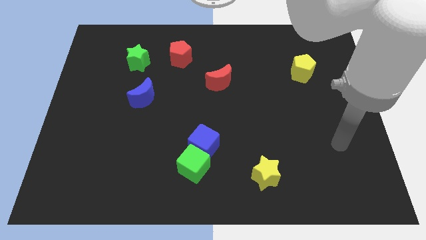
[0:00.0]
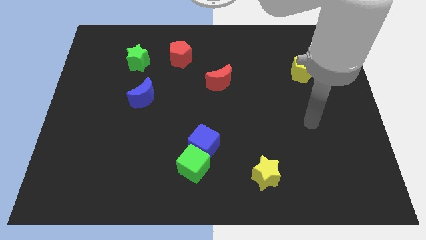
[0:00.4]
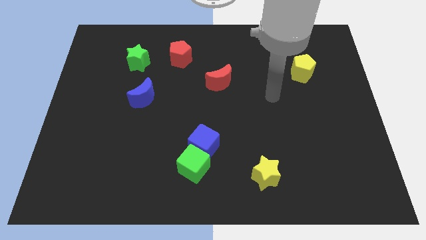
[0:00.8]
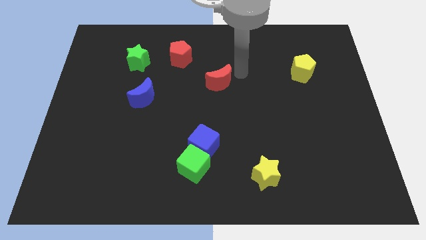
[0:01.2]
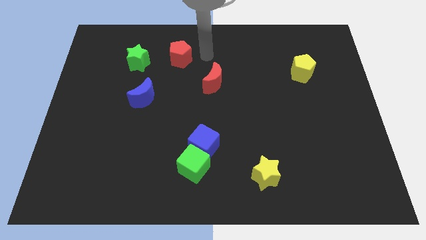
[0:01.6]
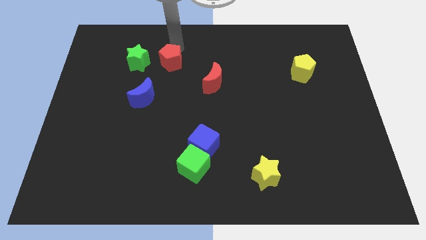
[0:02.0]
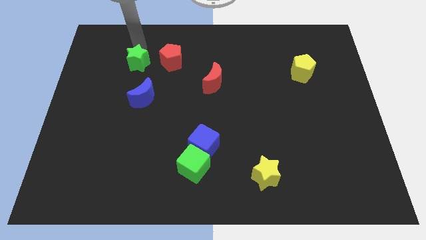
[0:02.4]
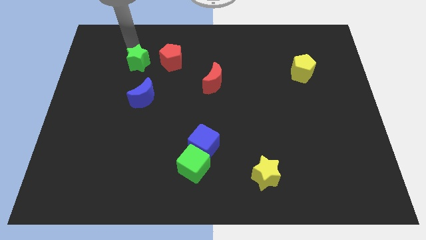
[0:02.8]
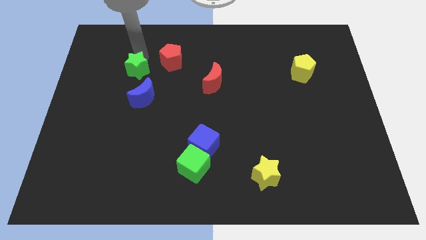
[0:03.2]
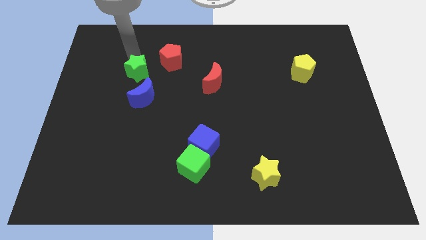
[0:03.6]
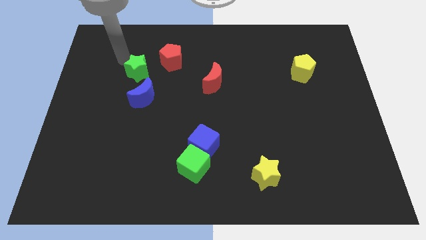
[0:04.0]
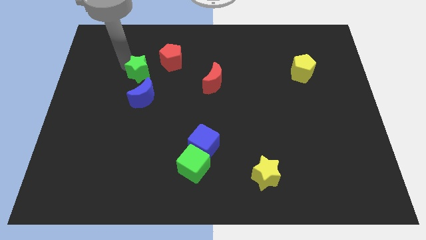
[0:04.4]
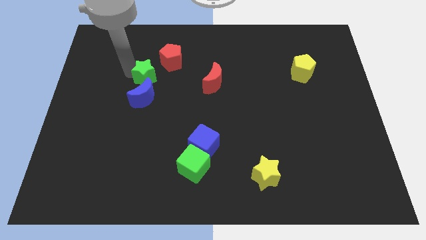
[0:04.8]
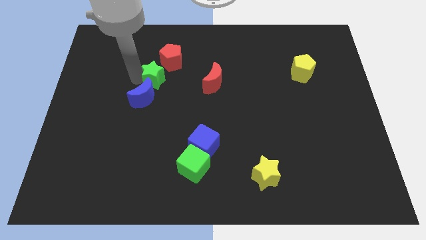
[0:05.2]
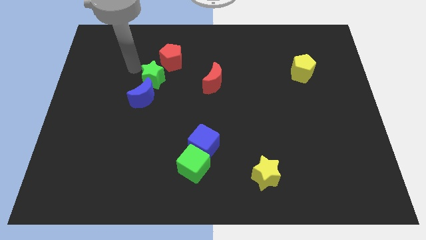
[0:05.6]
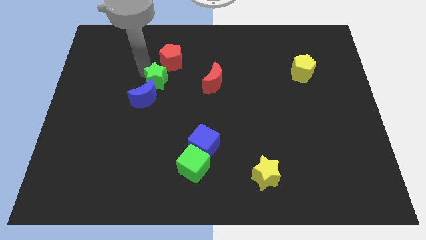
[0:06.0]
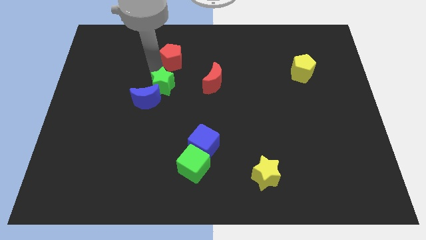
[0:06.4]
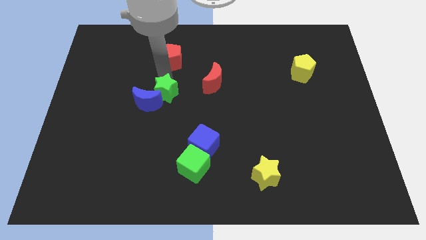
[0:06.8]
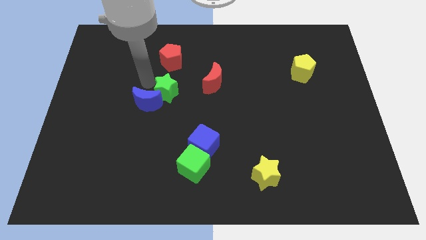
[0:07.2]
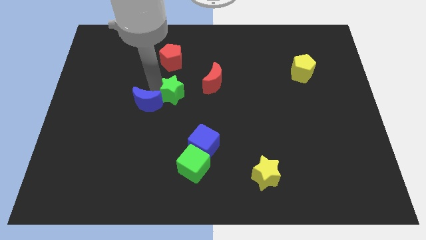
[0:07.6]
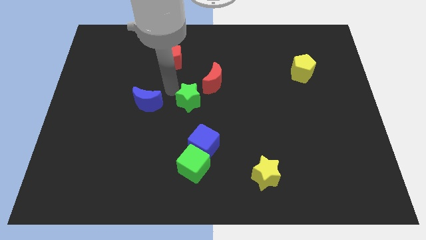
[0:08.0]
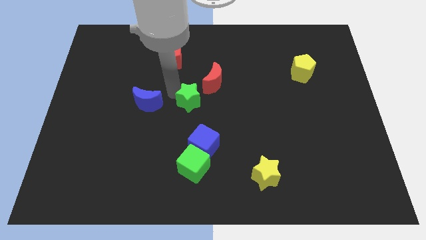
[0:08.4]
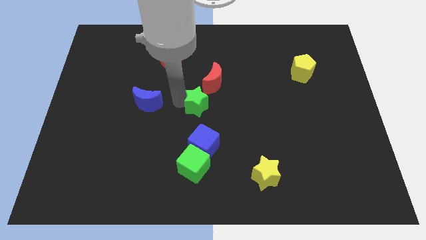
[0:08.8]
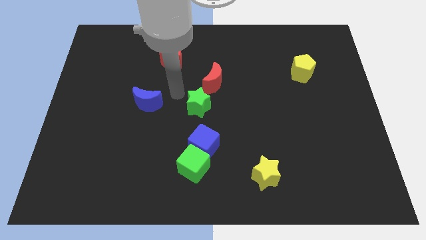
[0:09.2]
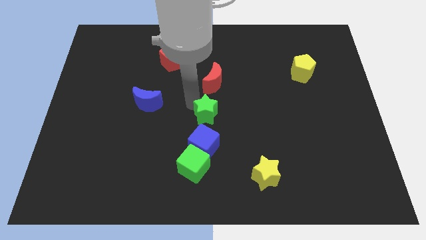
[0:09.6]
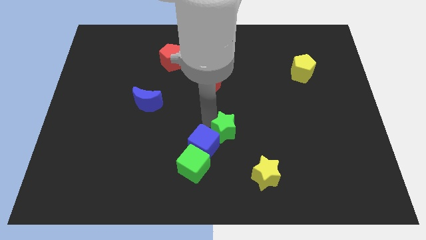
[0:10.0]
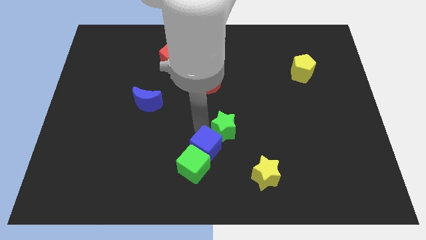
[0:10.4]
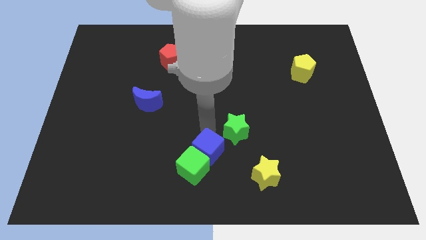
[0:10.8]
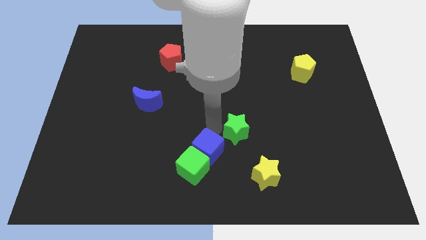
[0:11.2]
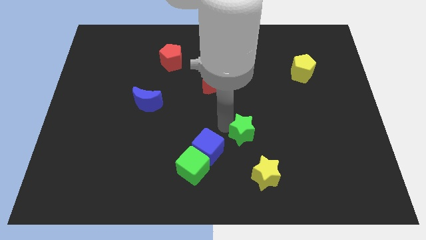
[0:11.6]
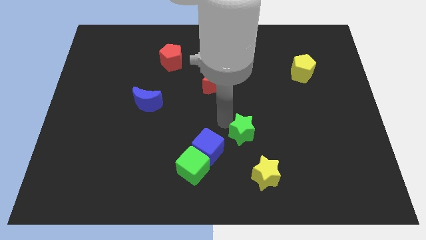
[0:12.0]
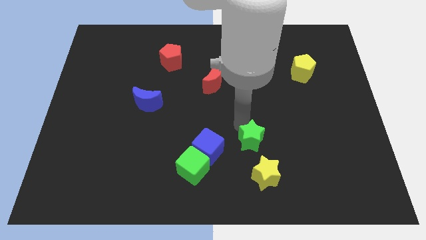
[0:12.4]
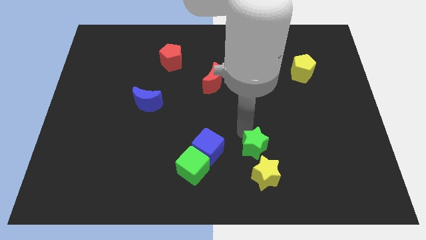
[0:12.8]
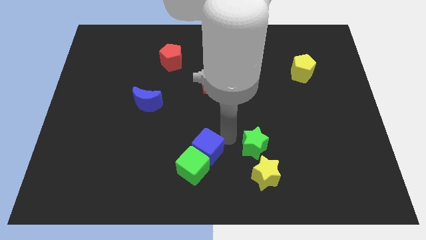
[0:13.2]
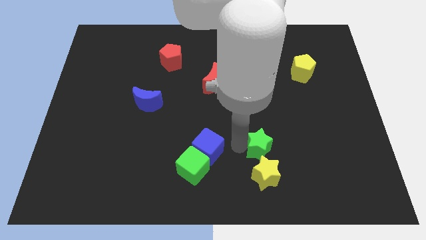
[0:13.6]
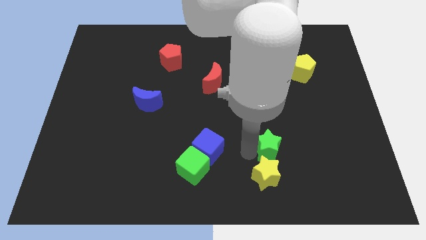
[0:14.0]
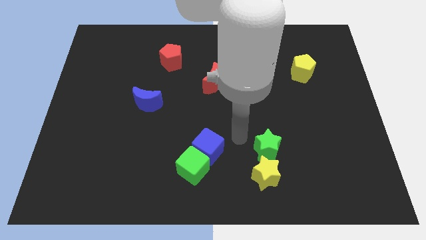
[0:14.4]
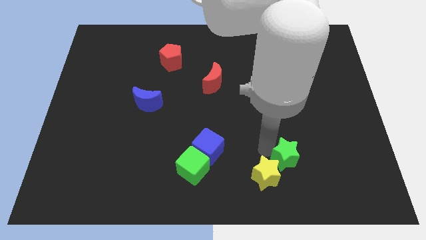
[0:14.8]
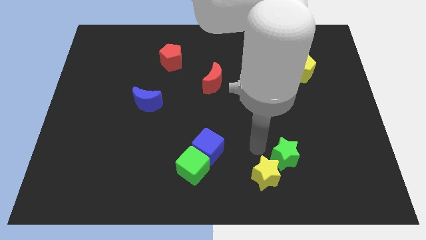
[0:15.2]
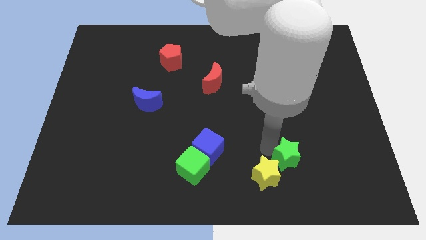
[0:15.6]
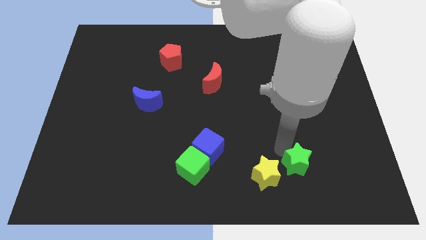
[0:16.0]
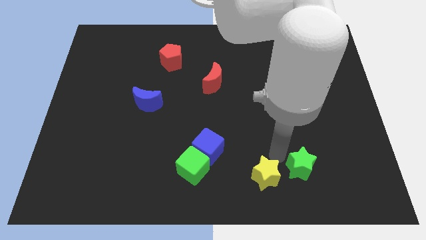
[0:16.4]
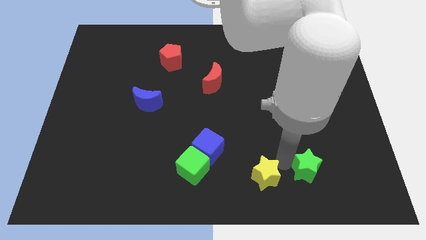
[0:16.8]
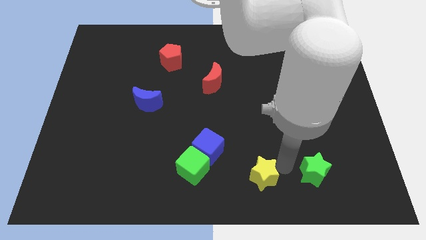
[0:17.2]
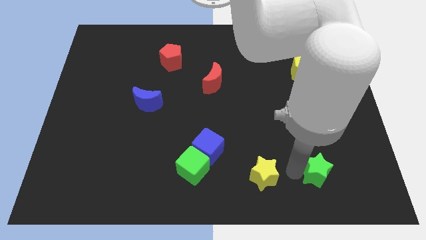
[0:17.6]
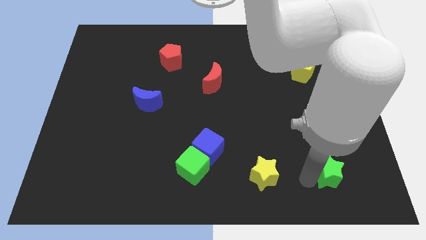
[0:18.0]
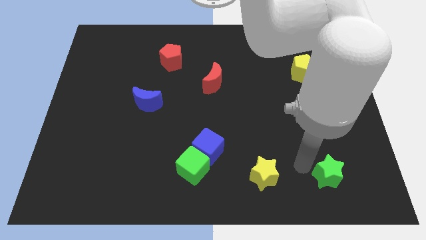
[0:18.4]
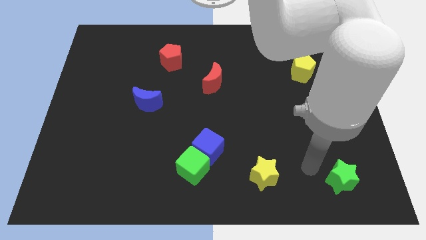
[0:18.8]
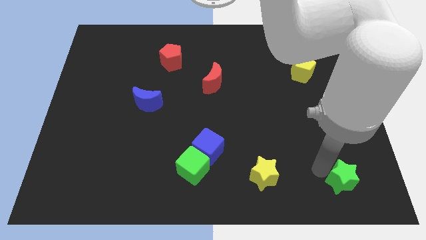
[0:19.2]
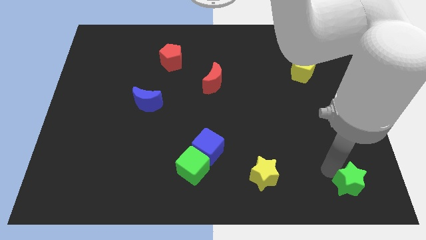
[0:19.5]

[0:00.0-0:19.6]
slide the green star to the bottom right corner

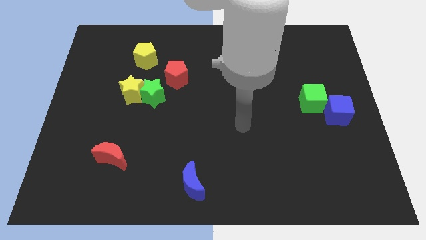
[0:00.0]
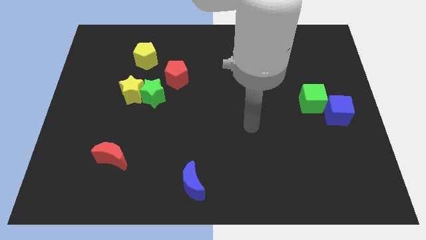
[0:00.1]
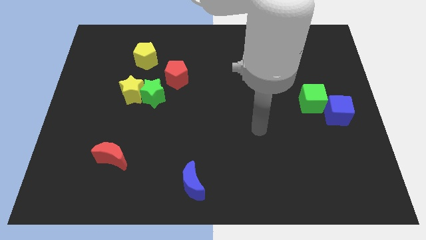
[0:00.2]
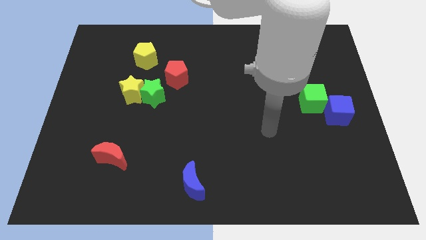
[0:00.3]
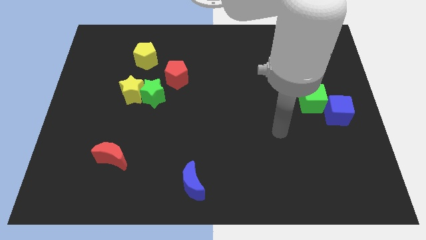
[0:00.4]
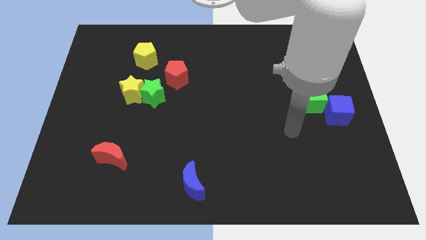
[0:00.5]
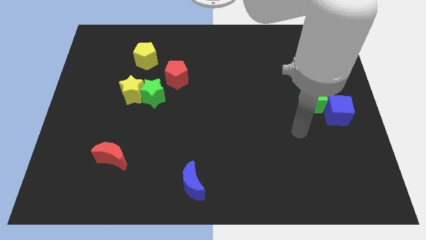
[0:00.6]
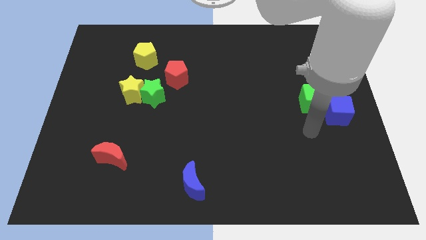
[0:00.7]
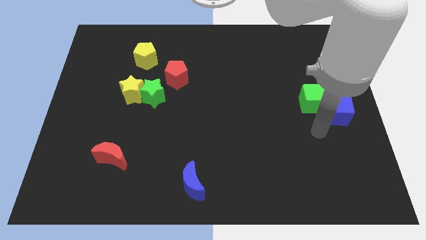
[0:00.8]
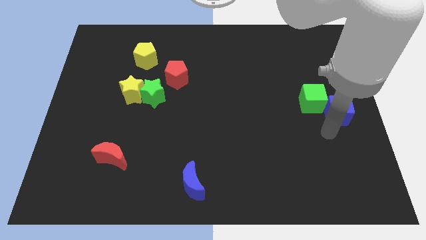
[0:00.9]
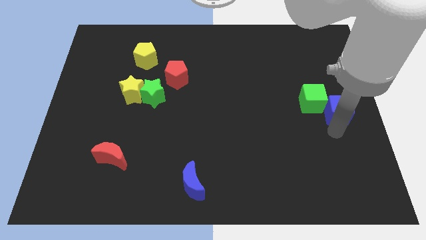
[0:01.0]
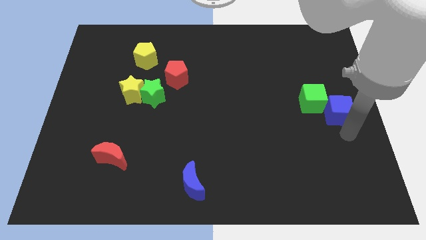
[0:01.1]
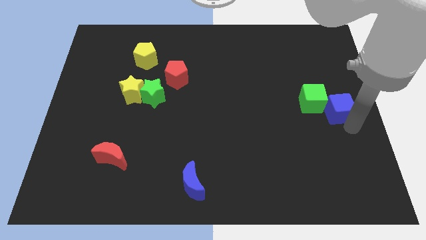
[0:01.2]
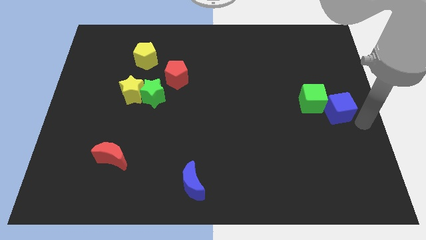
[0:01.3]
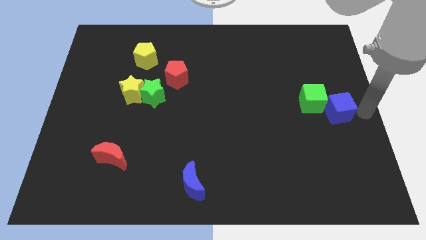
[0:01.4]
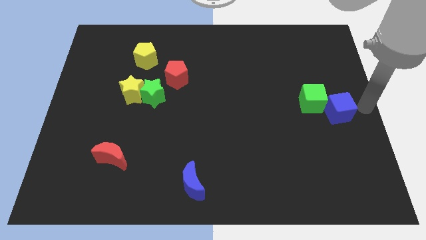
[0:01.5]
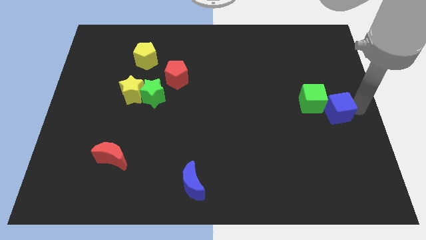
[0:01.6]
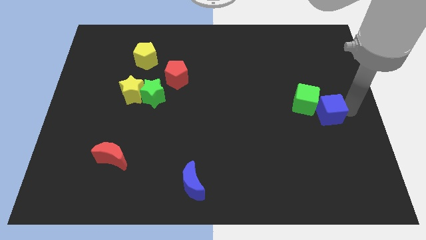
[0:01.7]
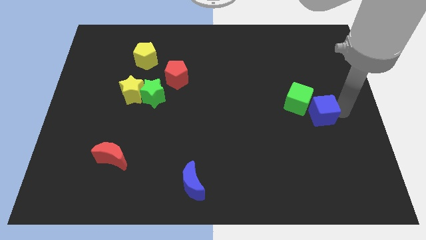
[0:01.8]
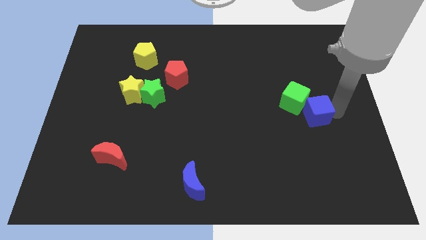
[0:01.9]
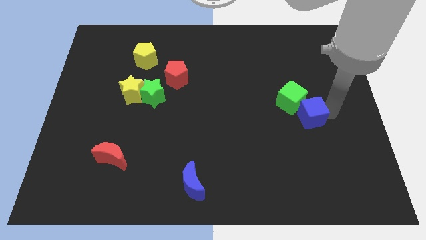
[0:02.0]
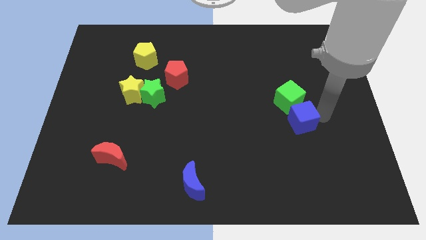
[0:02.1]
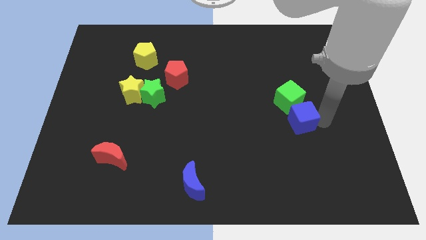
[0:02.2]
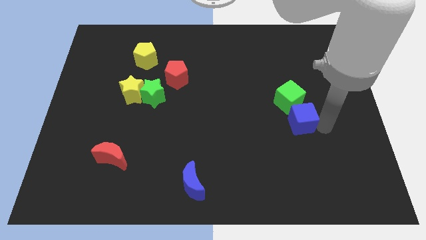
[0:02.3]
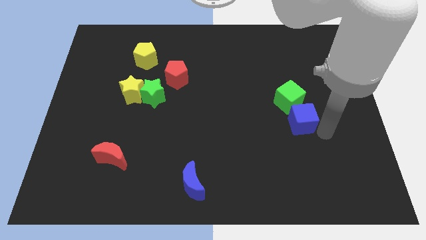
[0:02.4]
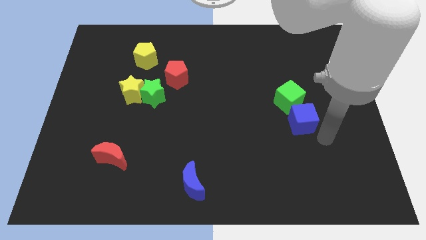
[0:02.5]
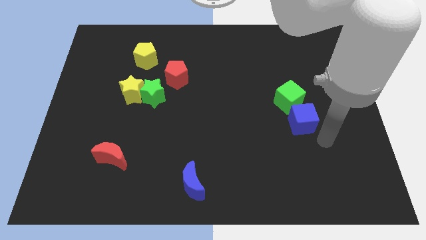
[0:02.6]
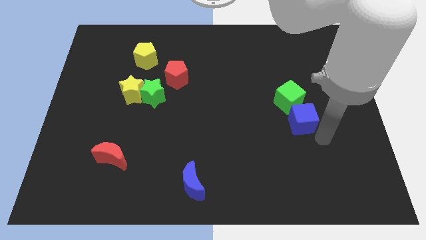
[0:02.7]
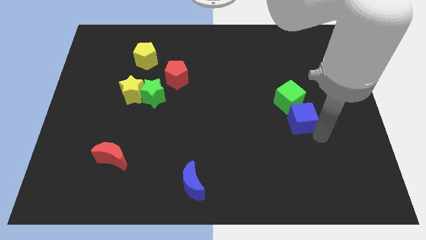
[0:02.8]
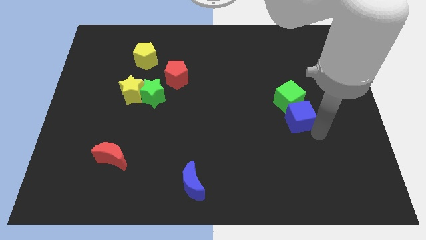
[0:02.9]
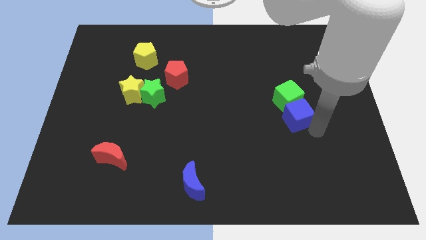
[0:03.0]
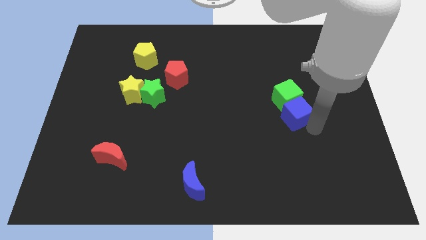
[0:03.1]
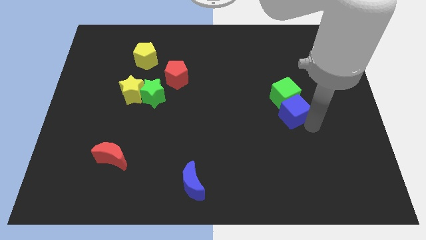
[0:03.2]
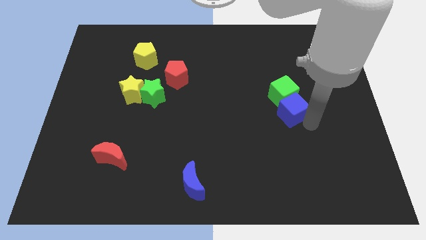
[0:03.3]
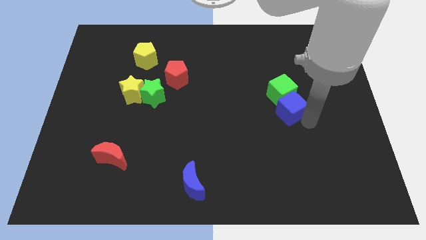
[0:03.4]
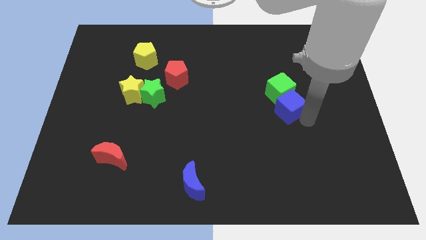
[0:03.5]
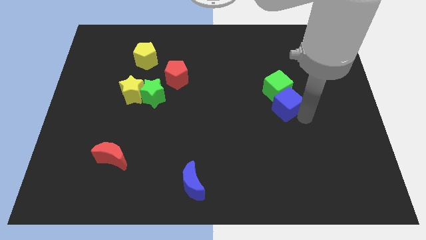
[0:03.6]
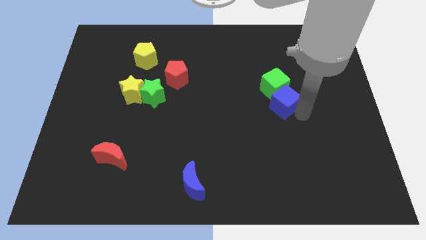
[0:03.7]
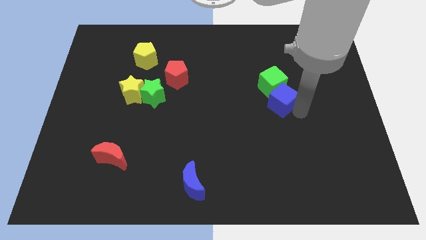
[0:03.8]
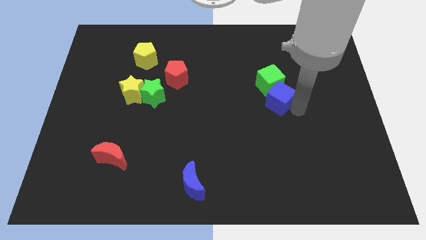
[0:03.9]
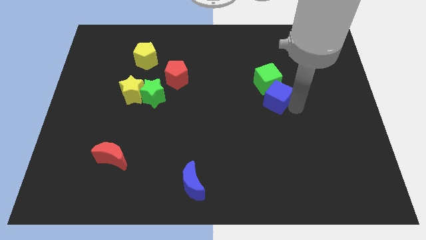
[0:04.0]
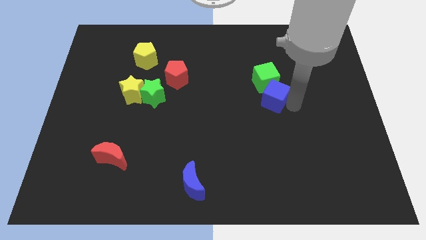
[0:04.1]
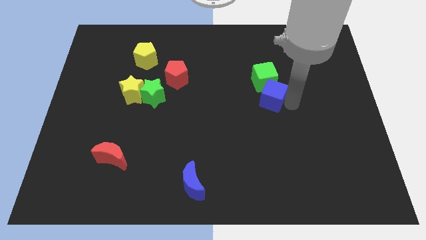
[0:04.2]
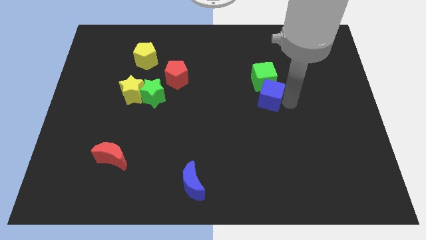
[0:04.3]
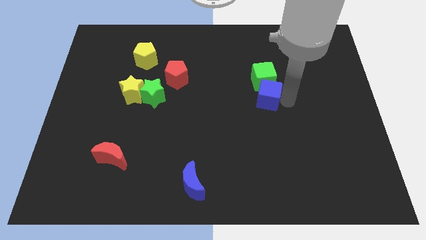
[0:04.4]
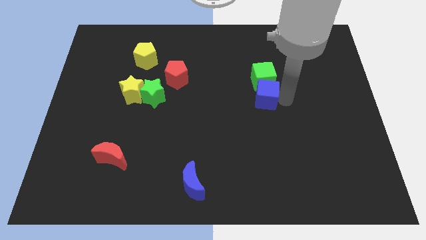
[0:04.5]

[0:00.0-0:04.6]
put the blue cube to the middle
